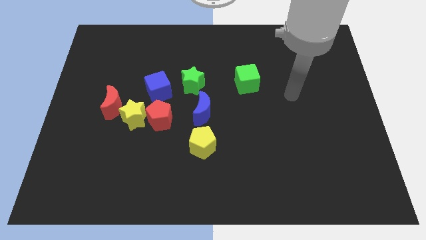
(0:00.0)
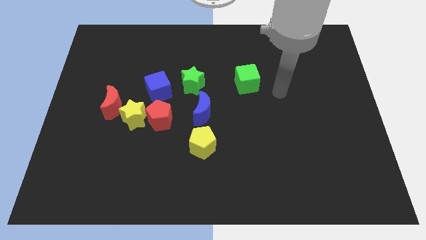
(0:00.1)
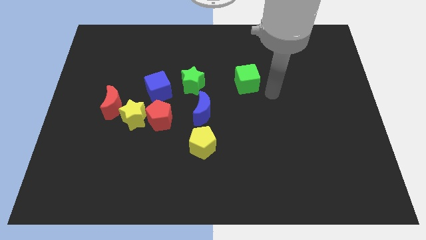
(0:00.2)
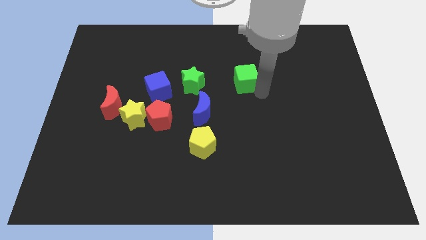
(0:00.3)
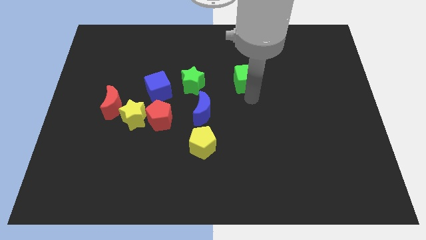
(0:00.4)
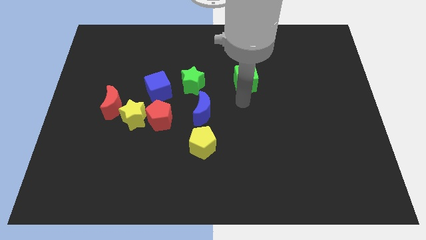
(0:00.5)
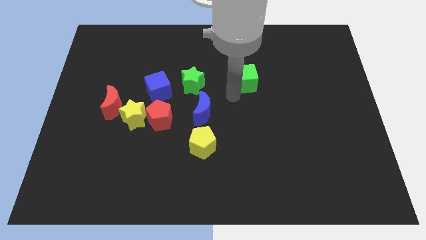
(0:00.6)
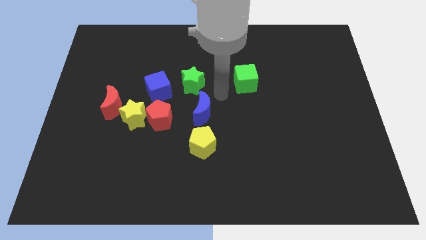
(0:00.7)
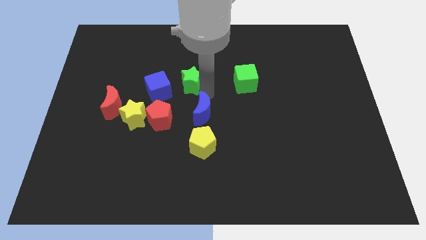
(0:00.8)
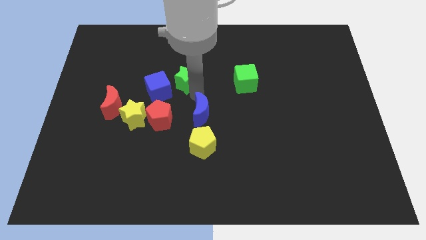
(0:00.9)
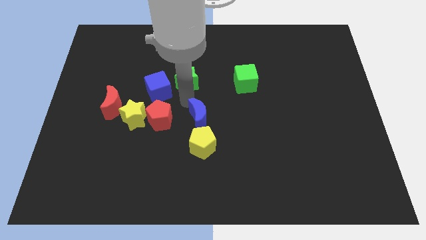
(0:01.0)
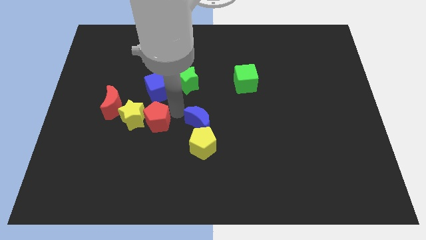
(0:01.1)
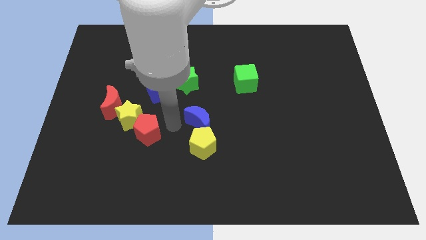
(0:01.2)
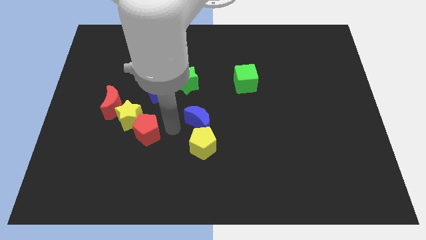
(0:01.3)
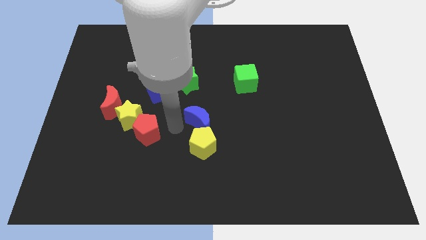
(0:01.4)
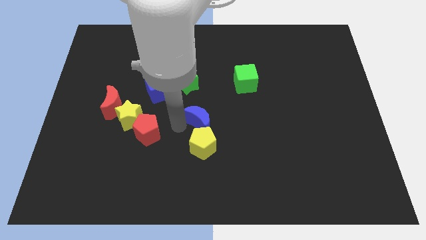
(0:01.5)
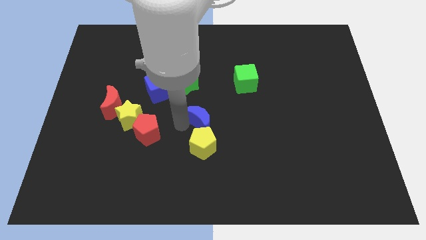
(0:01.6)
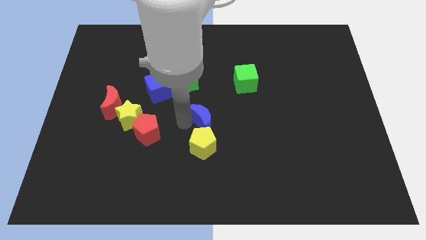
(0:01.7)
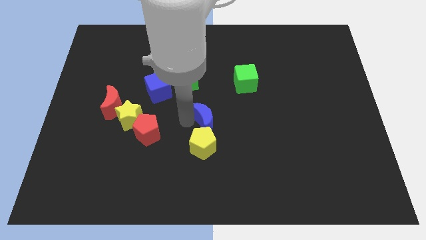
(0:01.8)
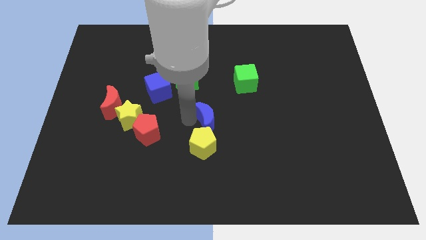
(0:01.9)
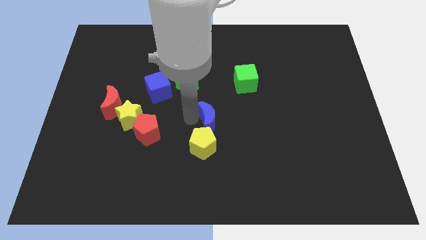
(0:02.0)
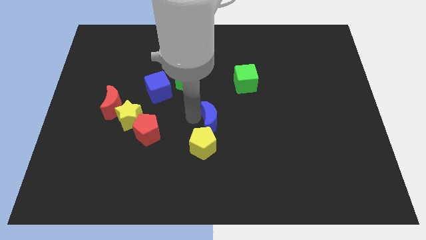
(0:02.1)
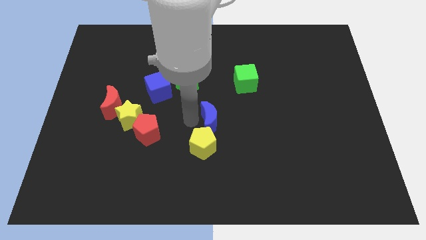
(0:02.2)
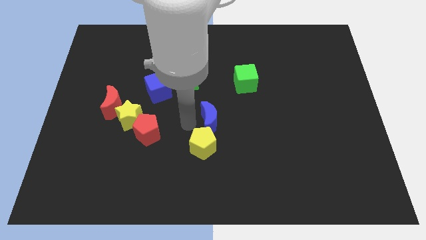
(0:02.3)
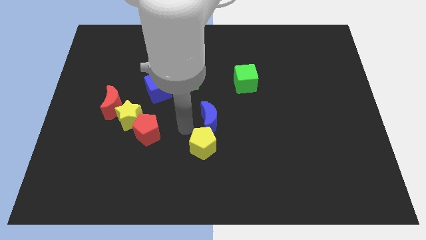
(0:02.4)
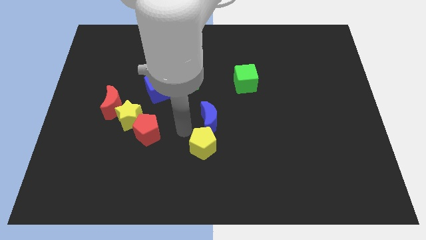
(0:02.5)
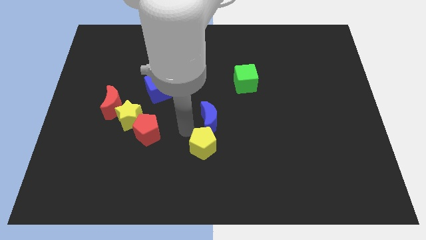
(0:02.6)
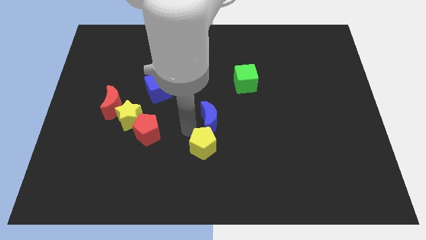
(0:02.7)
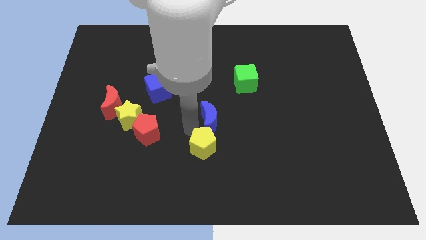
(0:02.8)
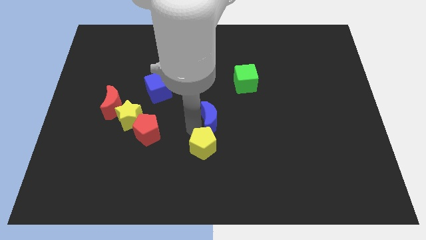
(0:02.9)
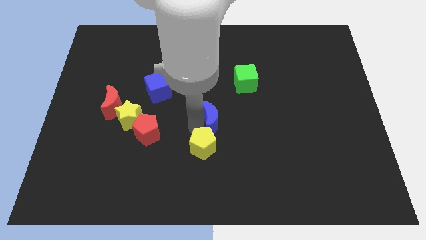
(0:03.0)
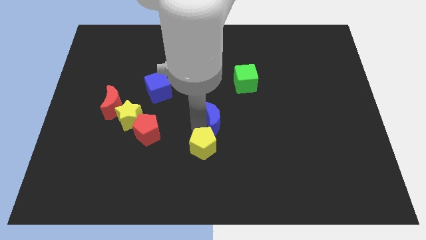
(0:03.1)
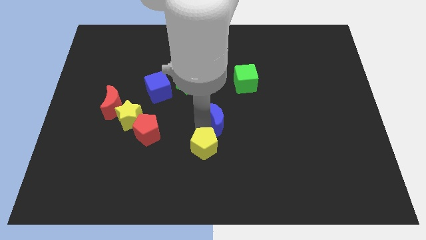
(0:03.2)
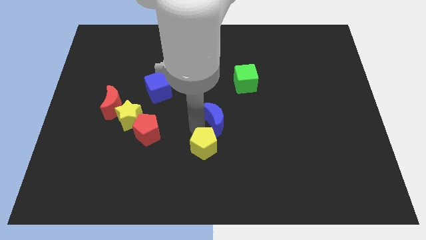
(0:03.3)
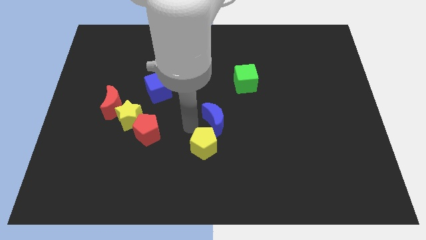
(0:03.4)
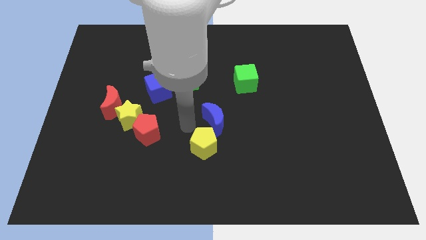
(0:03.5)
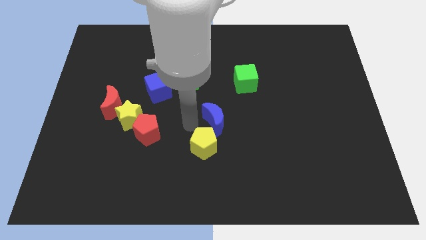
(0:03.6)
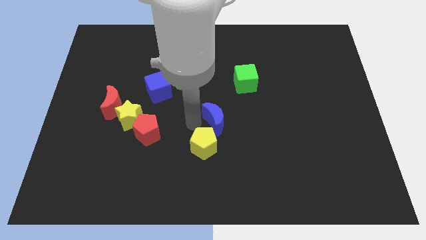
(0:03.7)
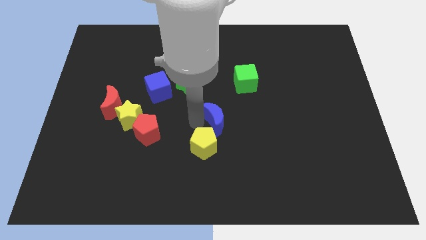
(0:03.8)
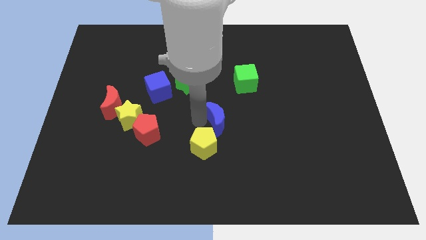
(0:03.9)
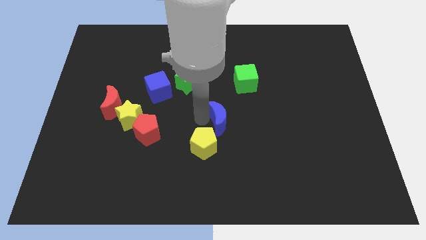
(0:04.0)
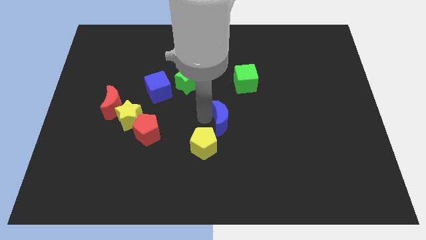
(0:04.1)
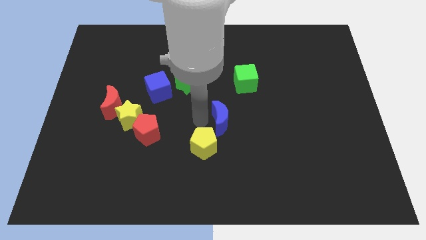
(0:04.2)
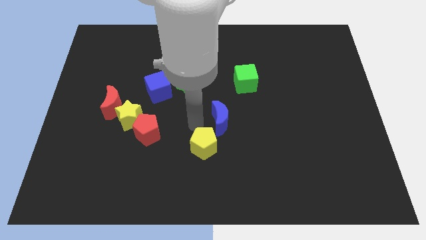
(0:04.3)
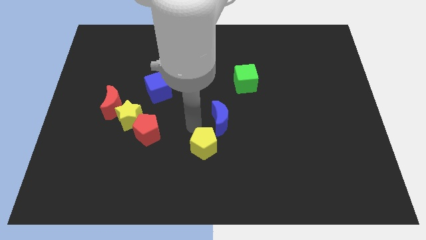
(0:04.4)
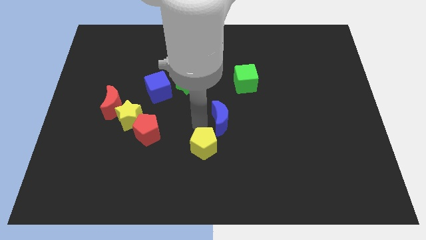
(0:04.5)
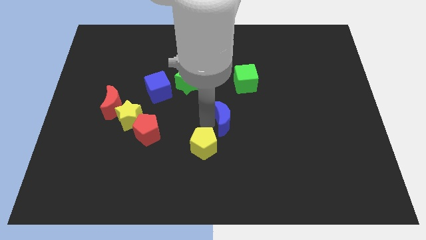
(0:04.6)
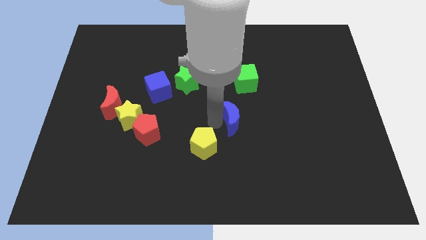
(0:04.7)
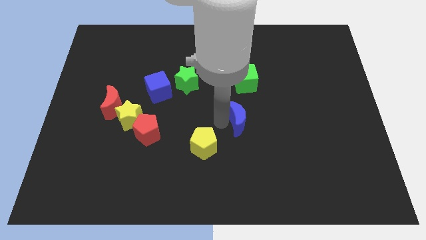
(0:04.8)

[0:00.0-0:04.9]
slightly move the blue moon right

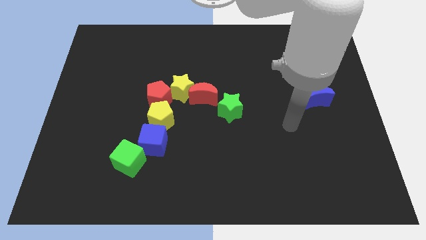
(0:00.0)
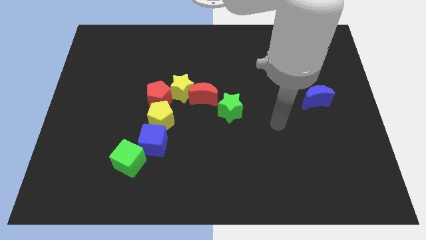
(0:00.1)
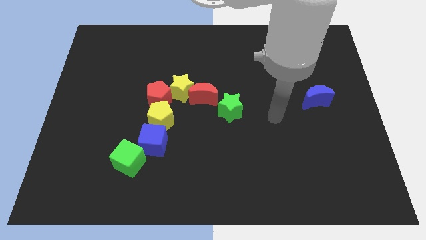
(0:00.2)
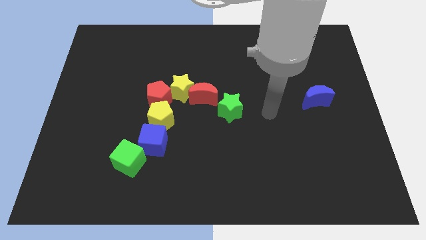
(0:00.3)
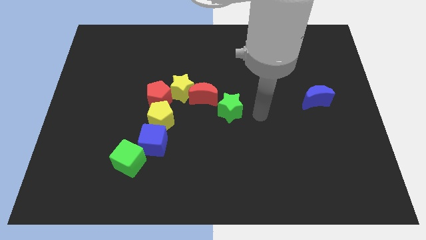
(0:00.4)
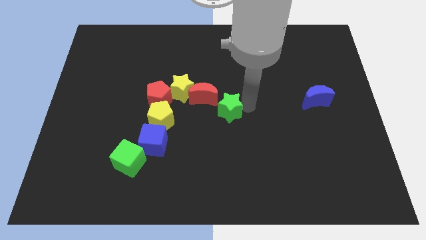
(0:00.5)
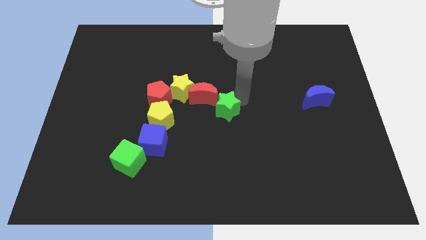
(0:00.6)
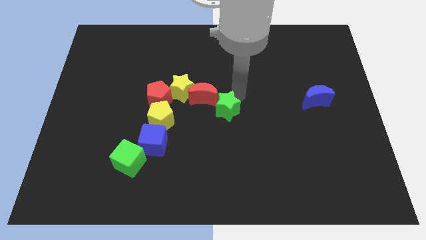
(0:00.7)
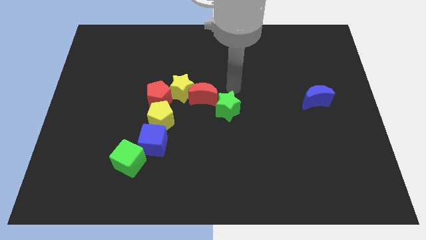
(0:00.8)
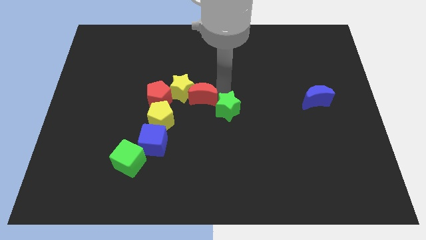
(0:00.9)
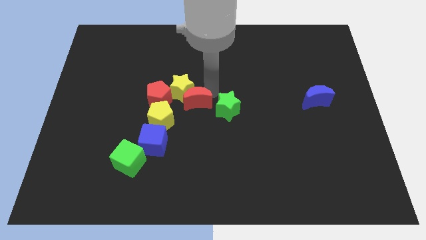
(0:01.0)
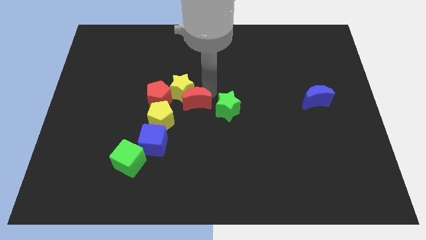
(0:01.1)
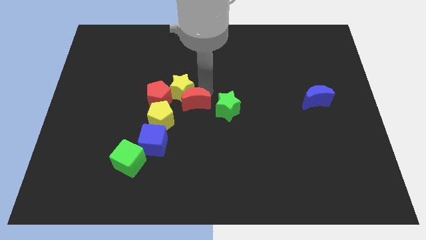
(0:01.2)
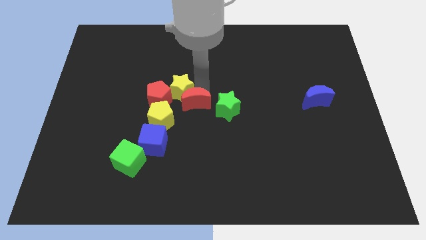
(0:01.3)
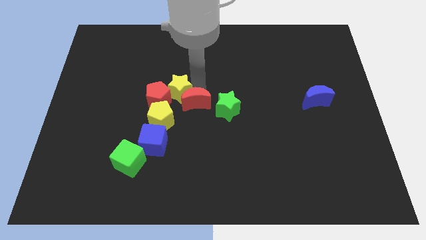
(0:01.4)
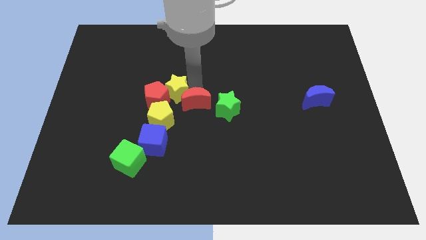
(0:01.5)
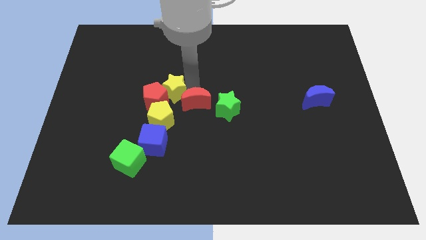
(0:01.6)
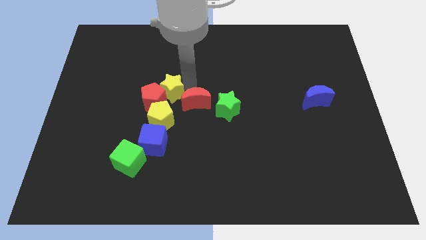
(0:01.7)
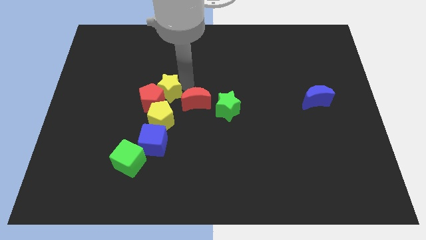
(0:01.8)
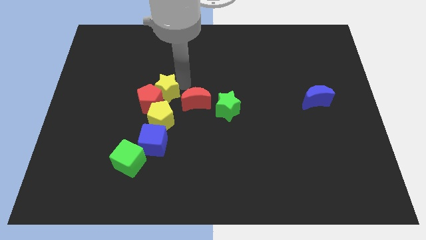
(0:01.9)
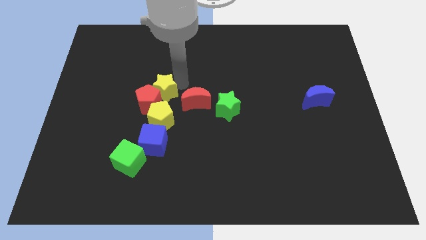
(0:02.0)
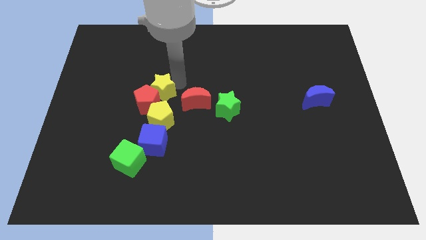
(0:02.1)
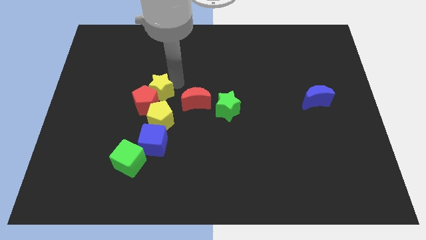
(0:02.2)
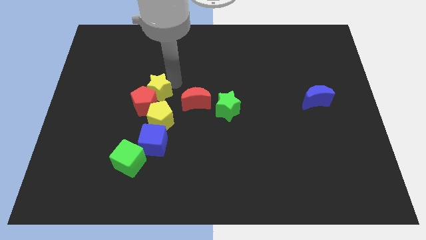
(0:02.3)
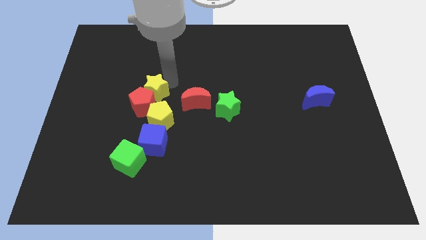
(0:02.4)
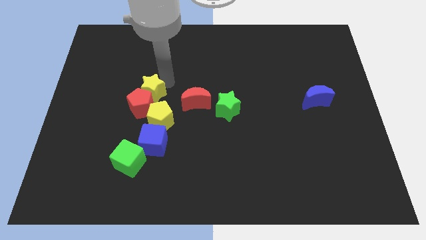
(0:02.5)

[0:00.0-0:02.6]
slide the yellow star left a bit

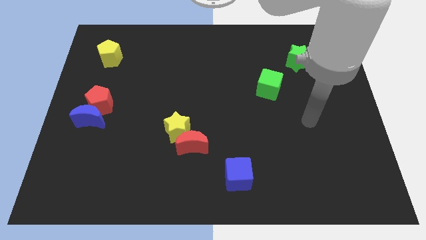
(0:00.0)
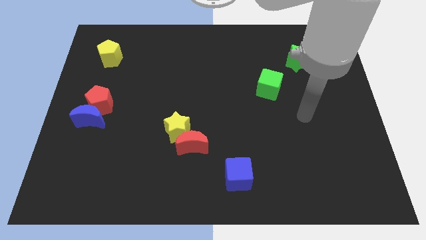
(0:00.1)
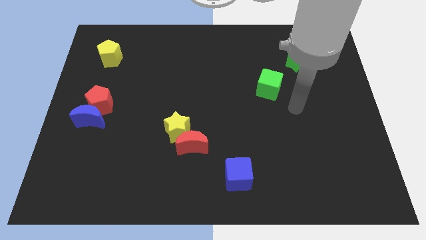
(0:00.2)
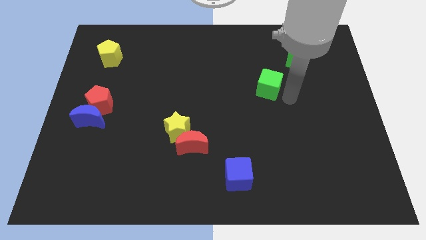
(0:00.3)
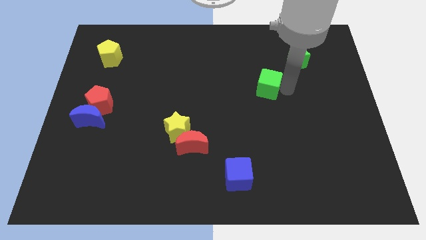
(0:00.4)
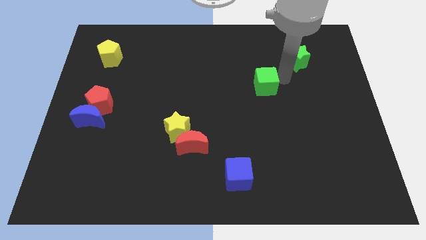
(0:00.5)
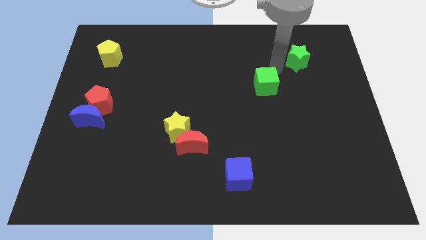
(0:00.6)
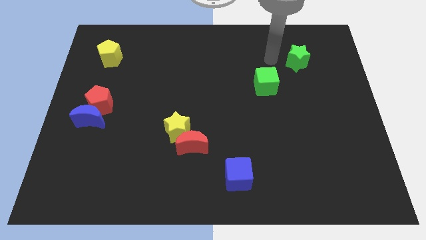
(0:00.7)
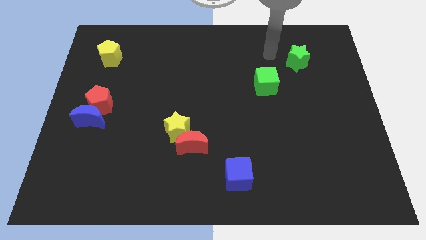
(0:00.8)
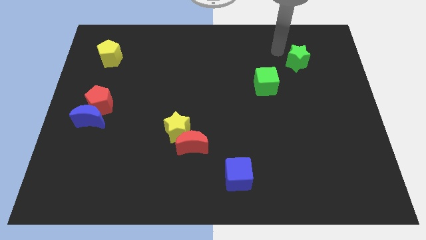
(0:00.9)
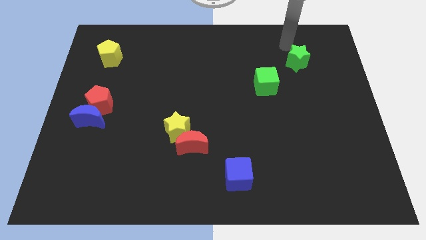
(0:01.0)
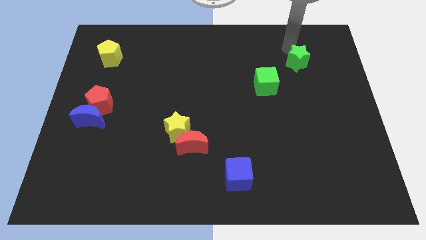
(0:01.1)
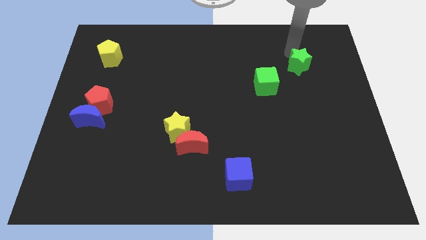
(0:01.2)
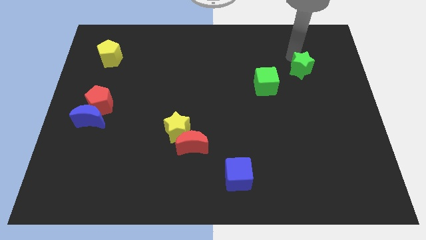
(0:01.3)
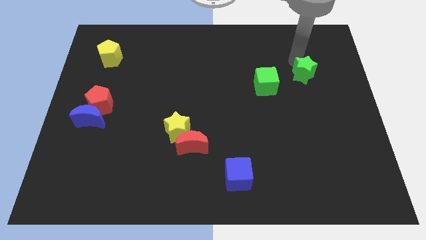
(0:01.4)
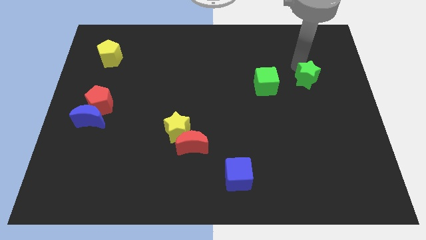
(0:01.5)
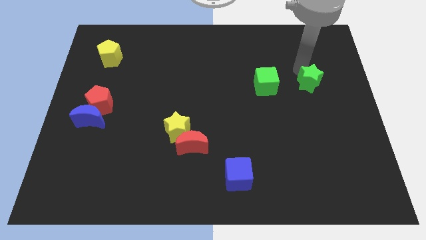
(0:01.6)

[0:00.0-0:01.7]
slightly push the green star down
